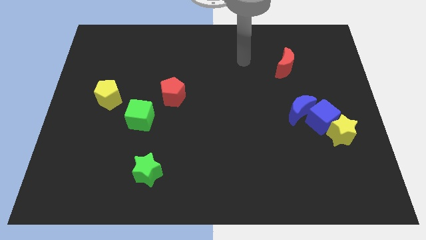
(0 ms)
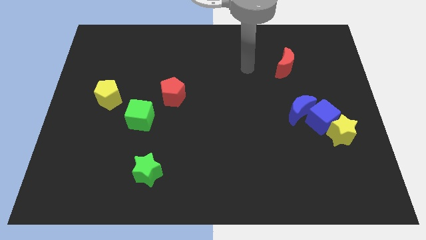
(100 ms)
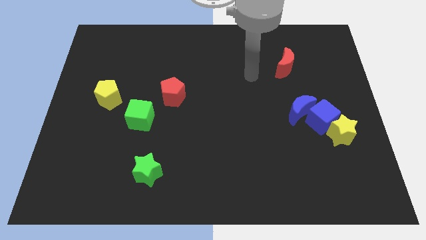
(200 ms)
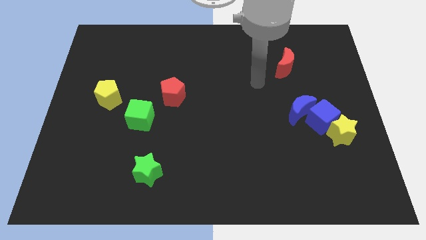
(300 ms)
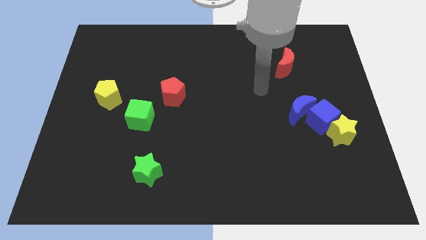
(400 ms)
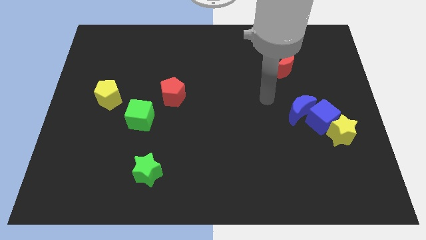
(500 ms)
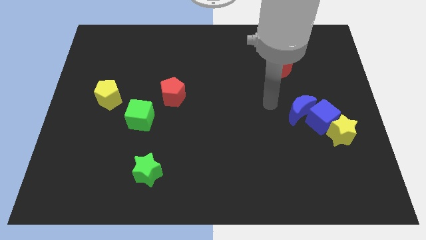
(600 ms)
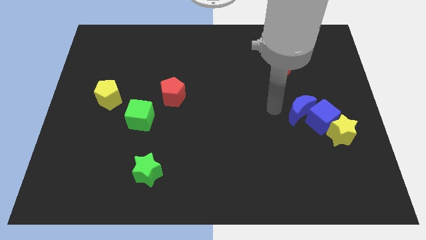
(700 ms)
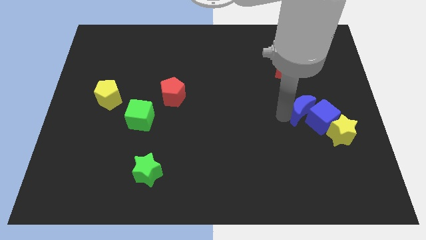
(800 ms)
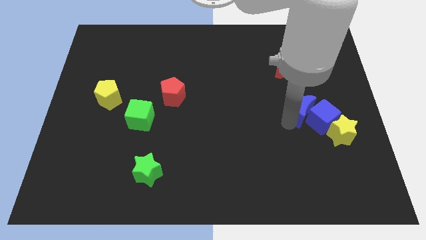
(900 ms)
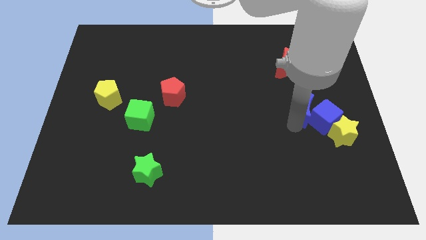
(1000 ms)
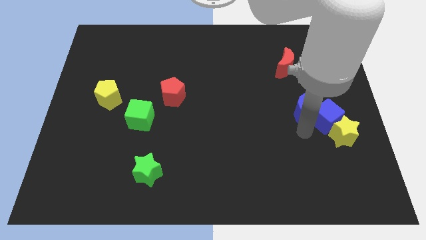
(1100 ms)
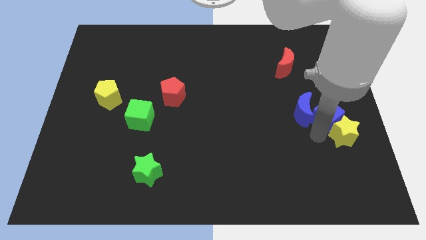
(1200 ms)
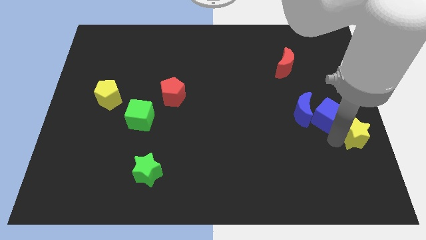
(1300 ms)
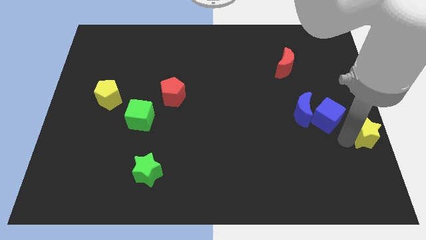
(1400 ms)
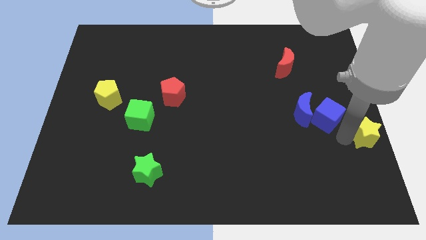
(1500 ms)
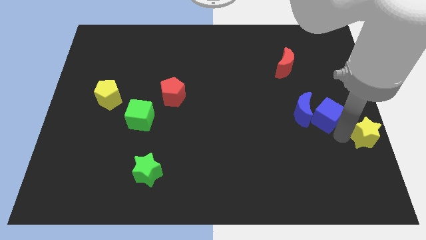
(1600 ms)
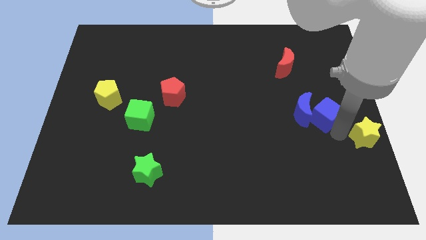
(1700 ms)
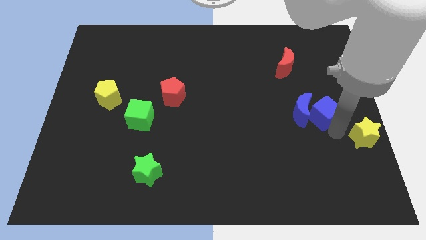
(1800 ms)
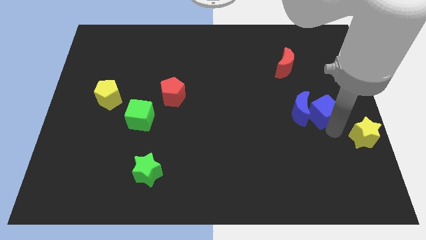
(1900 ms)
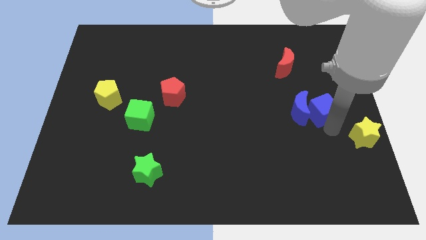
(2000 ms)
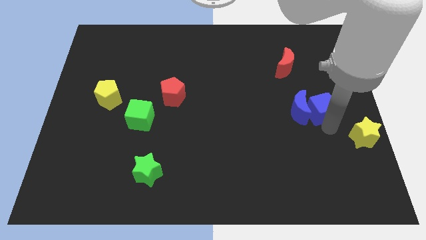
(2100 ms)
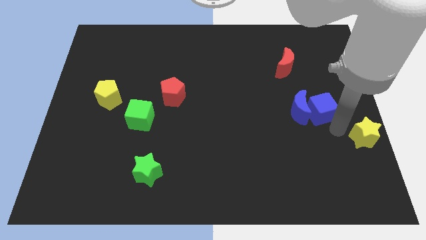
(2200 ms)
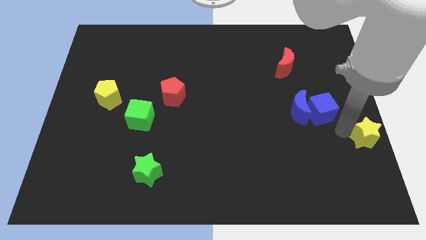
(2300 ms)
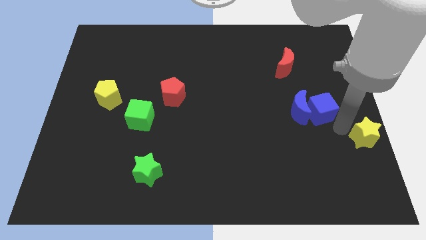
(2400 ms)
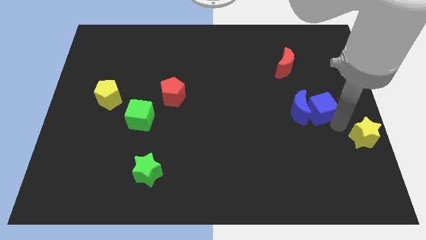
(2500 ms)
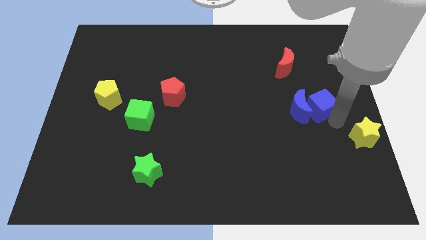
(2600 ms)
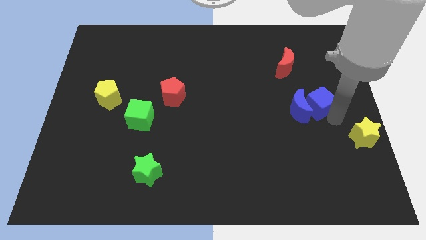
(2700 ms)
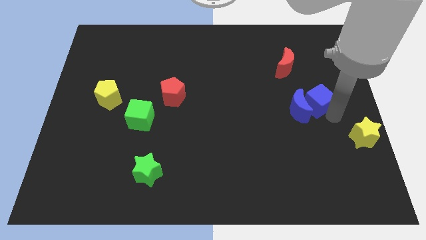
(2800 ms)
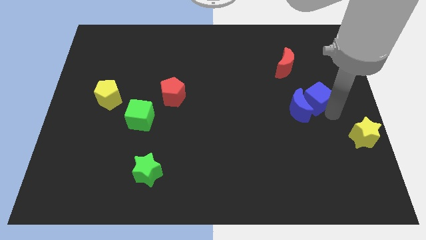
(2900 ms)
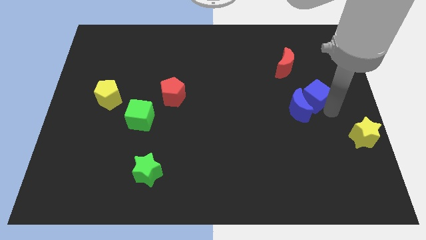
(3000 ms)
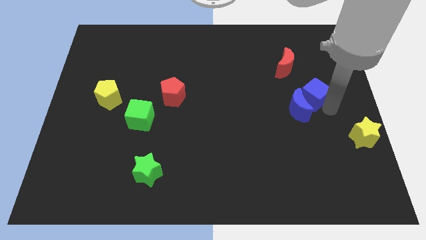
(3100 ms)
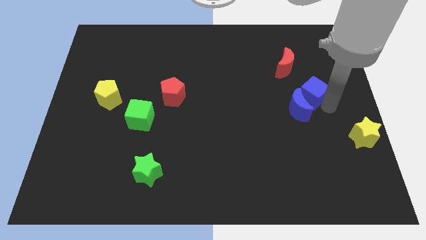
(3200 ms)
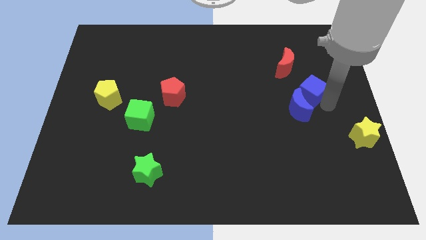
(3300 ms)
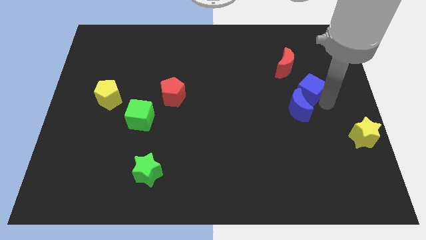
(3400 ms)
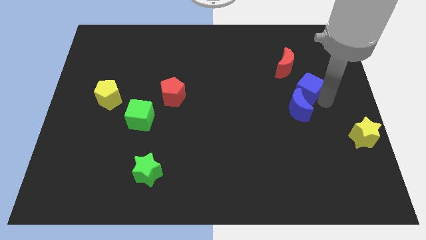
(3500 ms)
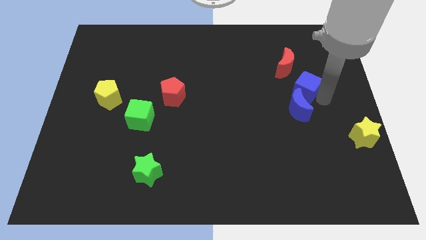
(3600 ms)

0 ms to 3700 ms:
slide the blue cube a little diagonally up and left

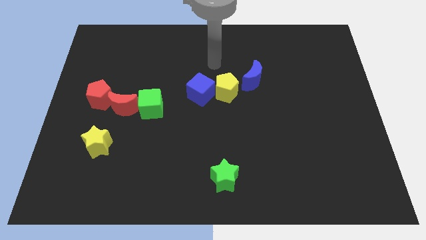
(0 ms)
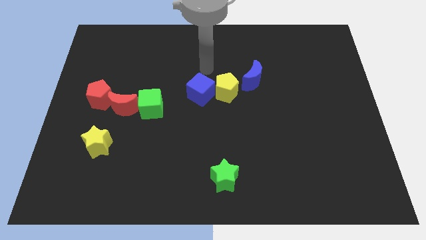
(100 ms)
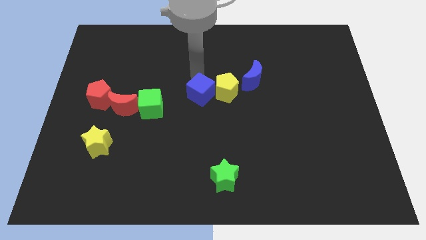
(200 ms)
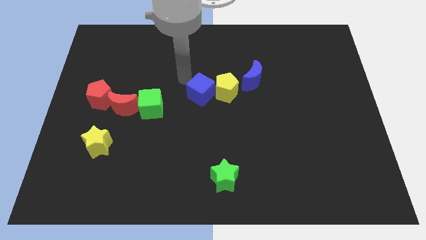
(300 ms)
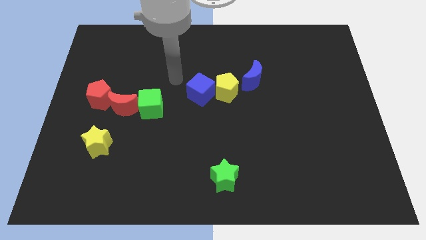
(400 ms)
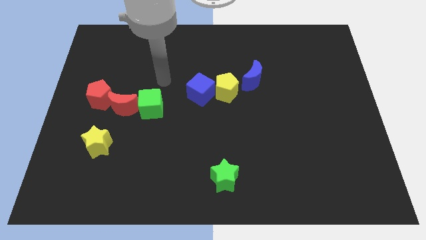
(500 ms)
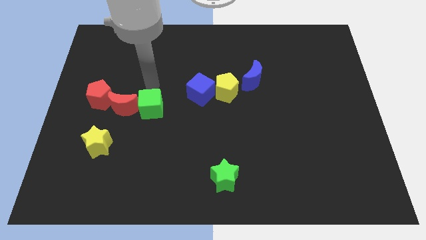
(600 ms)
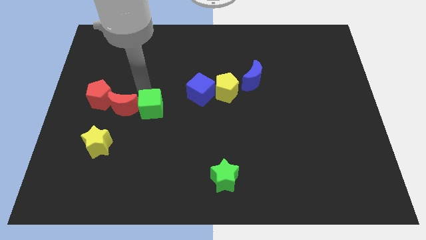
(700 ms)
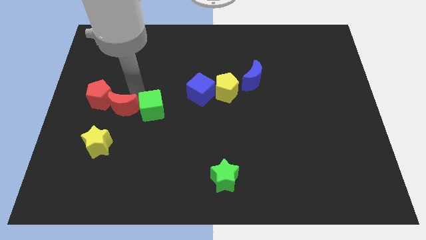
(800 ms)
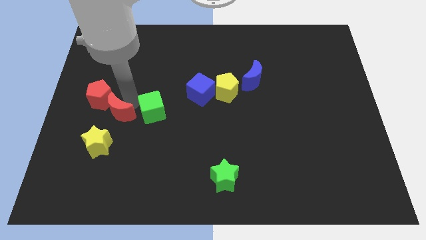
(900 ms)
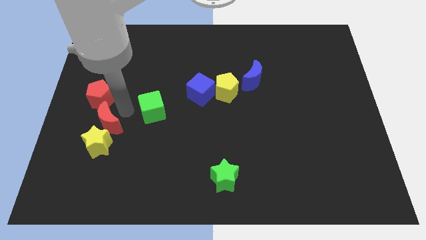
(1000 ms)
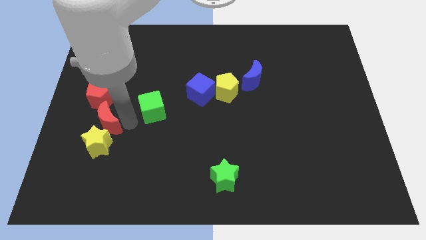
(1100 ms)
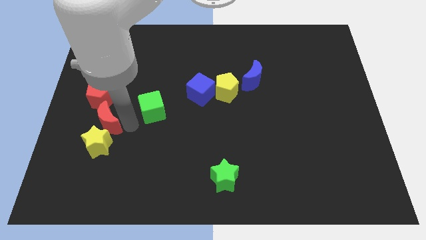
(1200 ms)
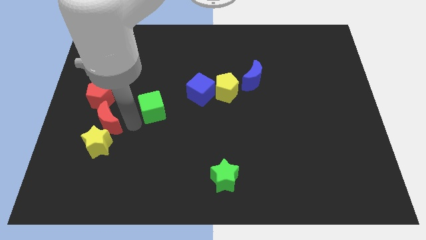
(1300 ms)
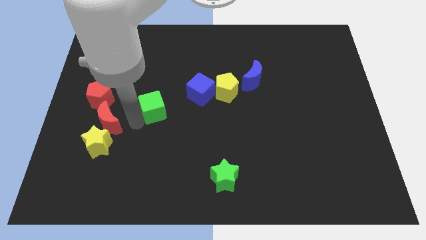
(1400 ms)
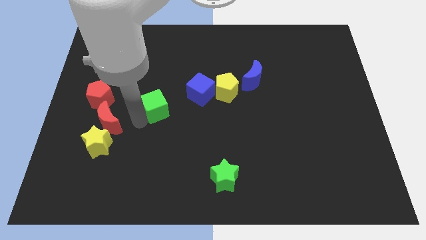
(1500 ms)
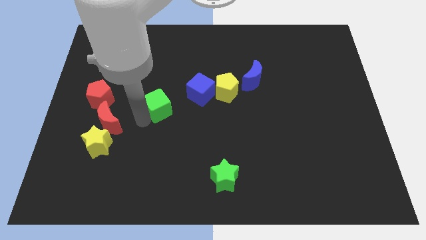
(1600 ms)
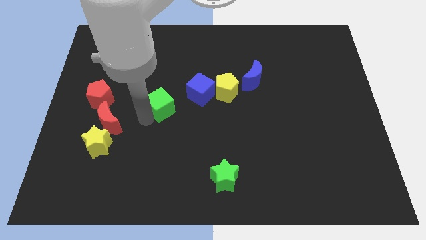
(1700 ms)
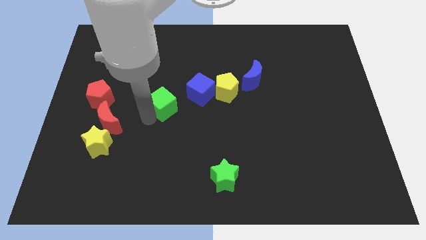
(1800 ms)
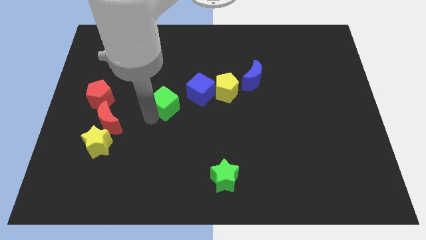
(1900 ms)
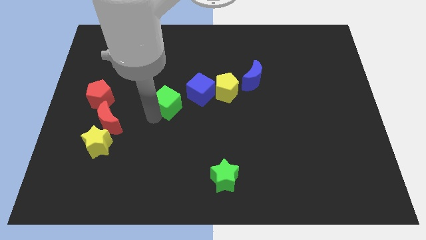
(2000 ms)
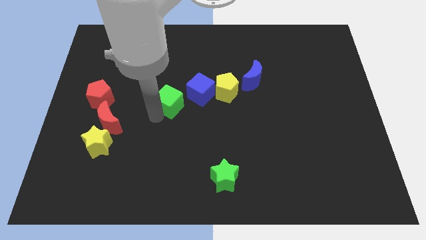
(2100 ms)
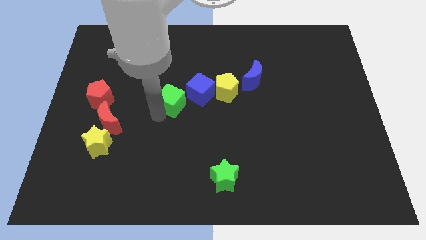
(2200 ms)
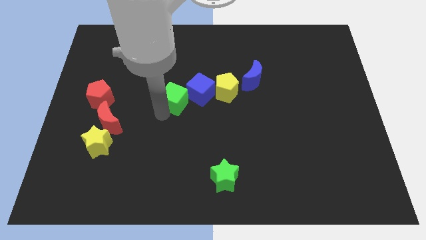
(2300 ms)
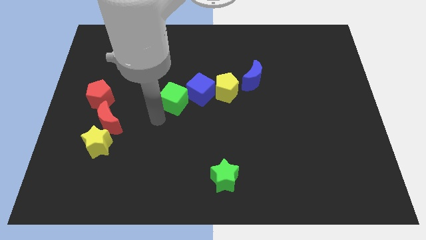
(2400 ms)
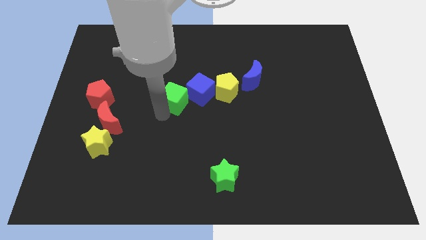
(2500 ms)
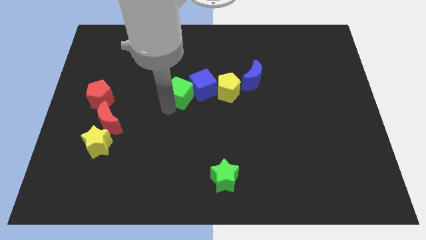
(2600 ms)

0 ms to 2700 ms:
push the green cube a little upwards and to the right diagonally

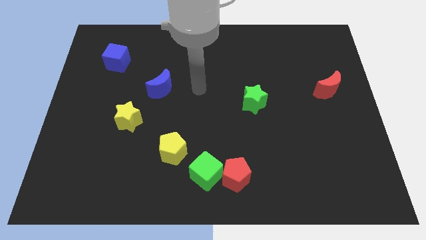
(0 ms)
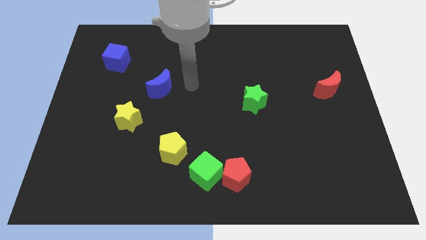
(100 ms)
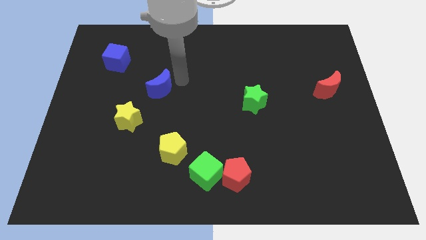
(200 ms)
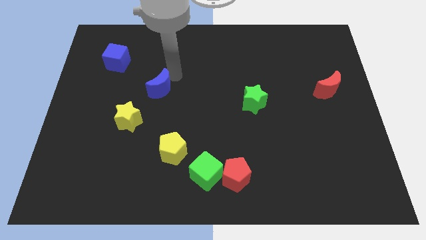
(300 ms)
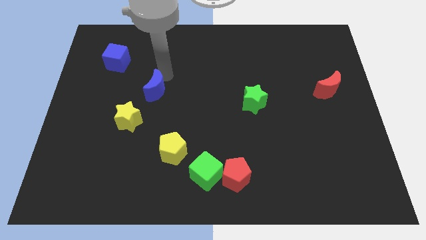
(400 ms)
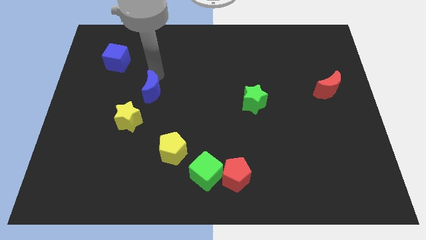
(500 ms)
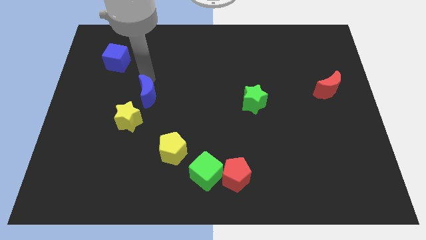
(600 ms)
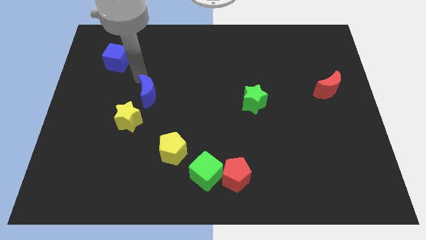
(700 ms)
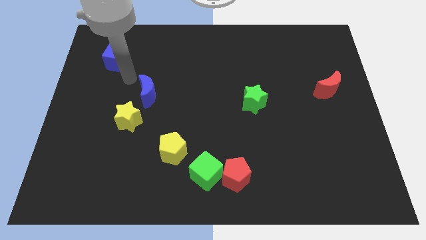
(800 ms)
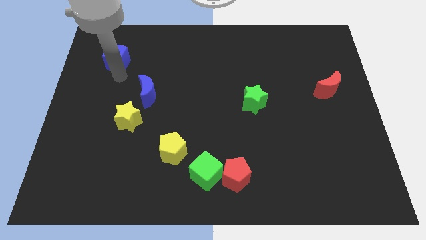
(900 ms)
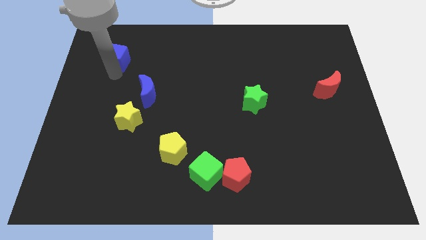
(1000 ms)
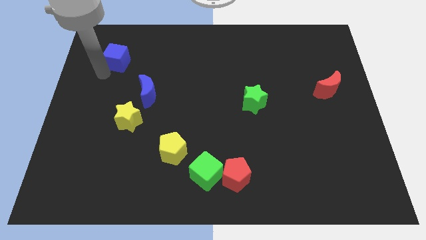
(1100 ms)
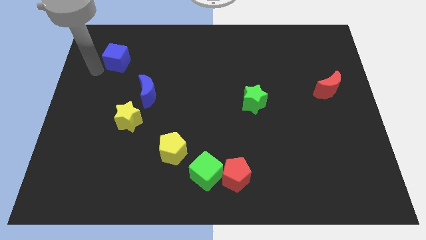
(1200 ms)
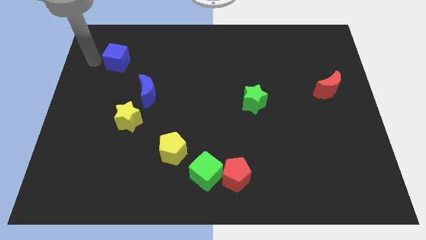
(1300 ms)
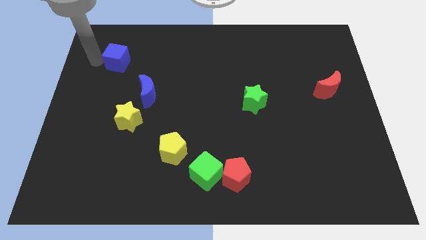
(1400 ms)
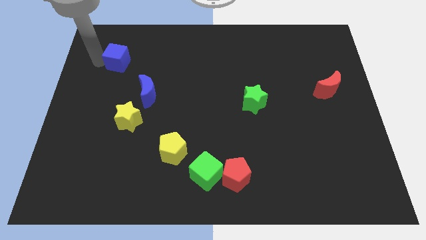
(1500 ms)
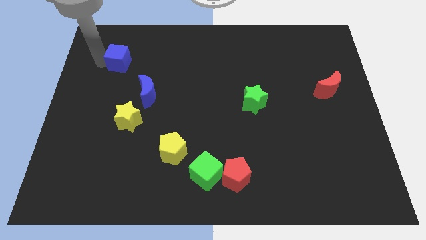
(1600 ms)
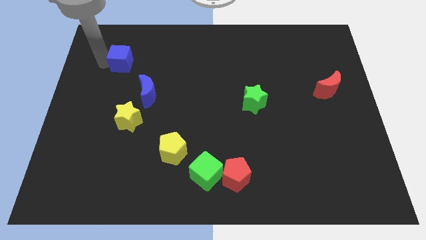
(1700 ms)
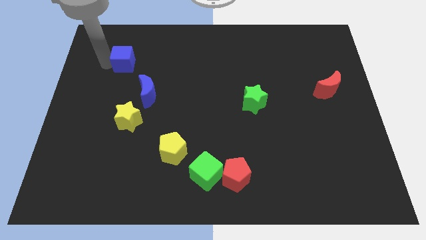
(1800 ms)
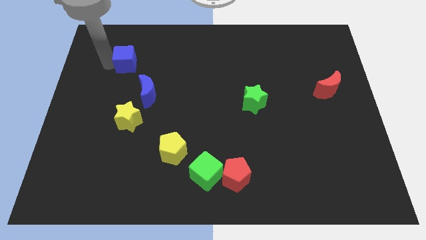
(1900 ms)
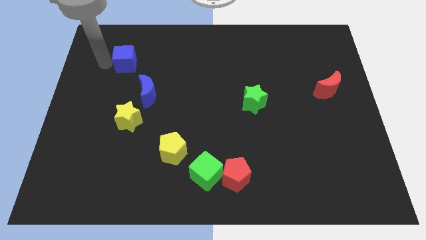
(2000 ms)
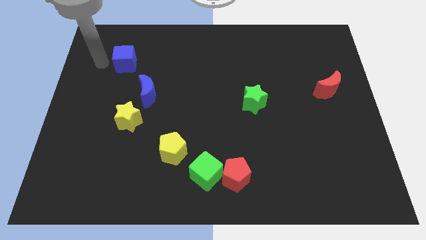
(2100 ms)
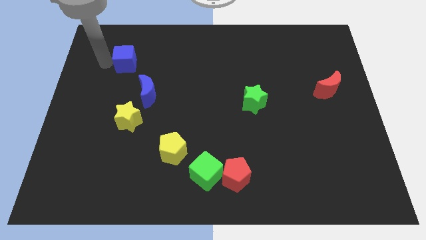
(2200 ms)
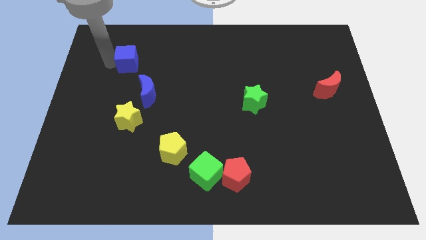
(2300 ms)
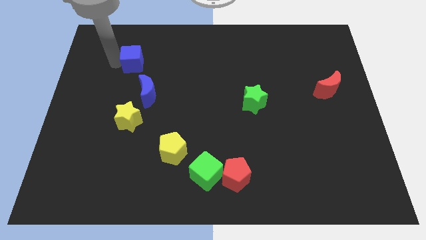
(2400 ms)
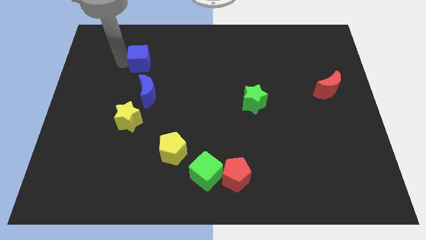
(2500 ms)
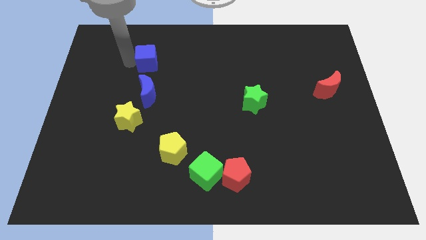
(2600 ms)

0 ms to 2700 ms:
push the blue cube a little bit to the right
